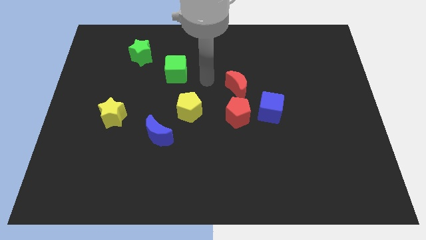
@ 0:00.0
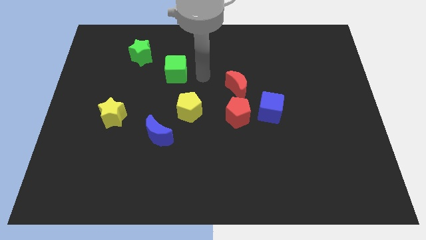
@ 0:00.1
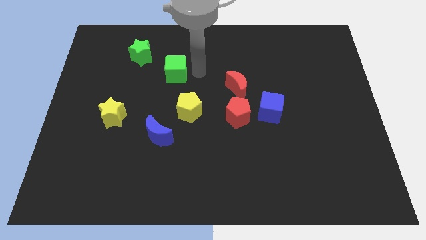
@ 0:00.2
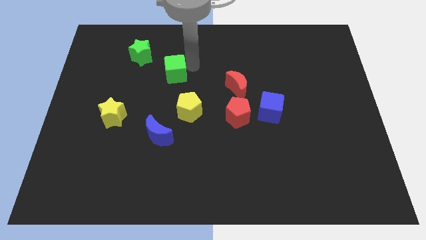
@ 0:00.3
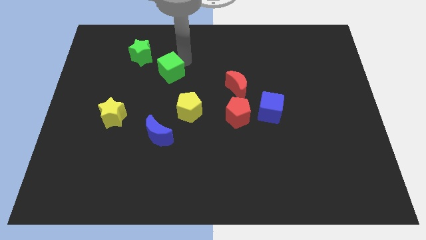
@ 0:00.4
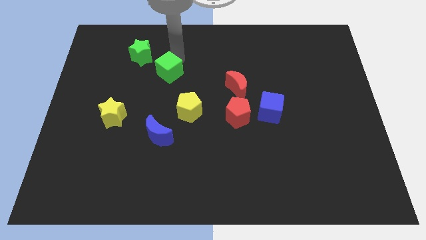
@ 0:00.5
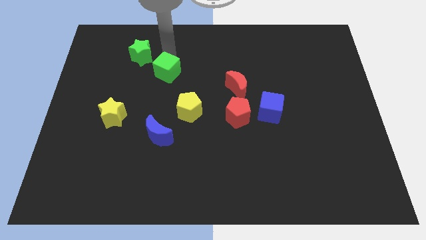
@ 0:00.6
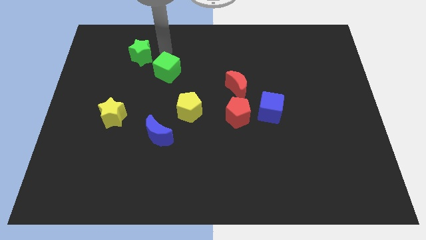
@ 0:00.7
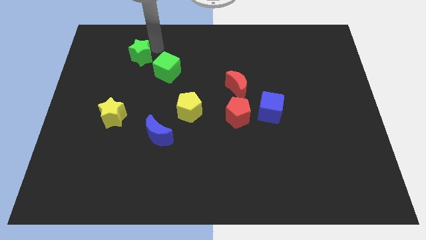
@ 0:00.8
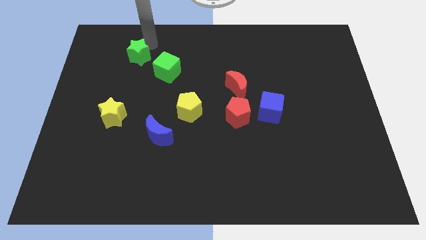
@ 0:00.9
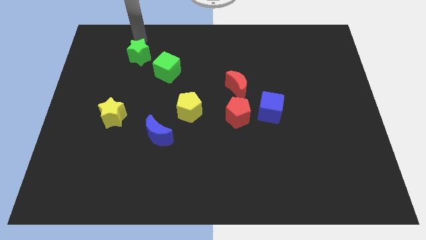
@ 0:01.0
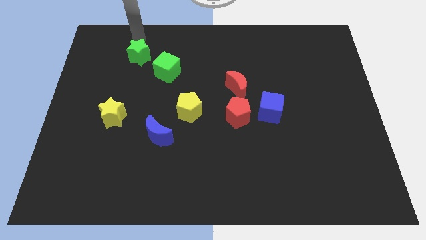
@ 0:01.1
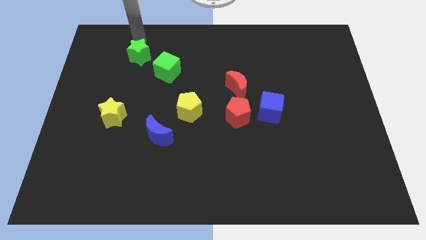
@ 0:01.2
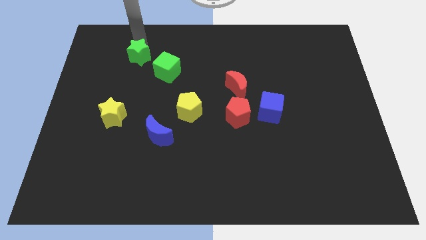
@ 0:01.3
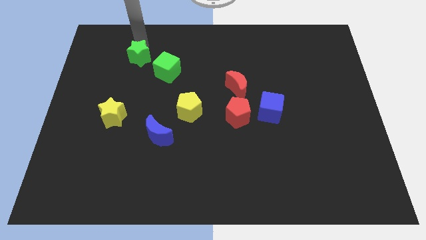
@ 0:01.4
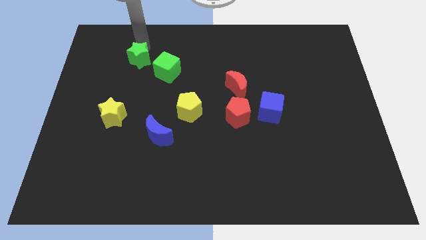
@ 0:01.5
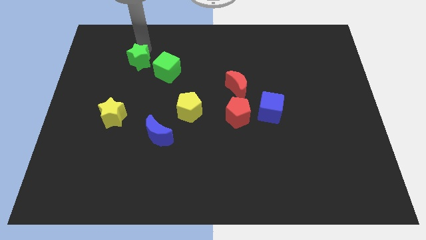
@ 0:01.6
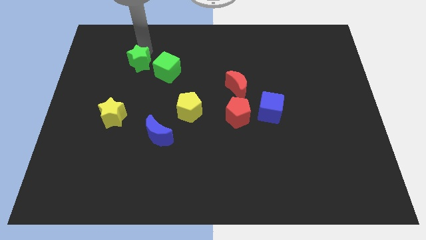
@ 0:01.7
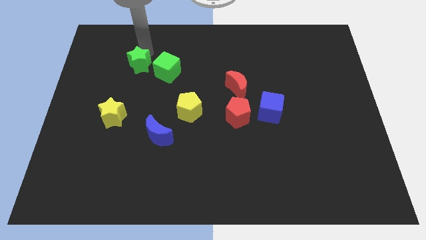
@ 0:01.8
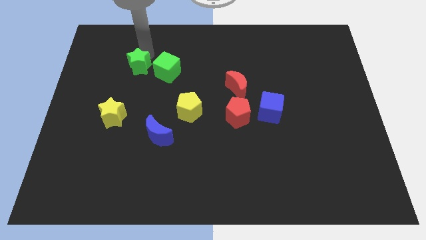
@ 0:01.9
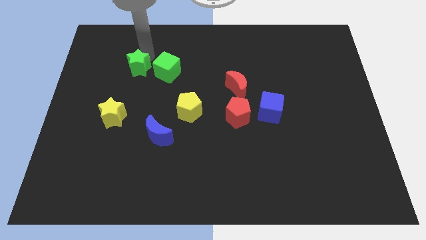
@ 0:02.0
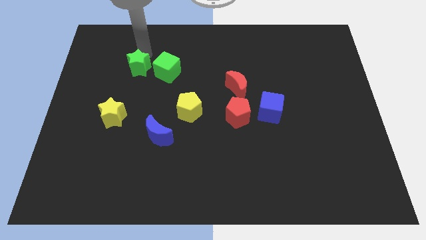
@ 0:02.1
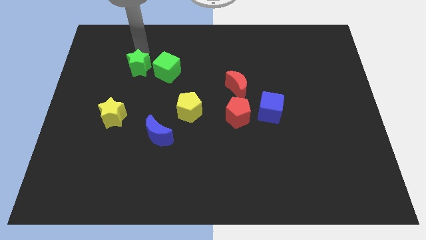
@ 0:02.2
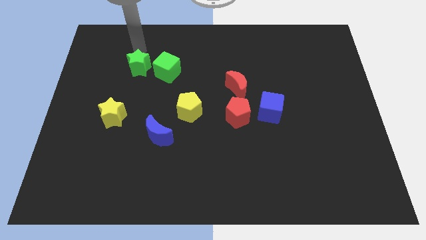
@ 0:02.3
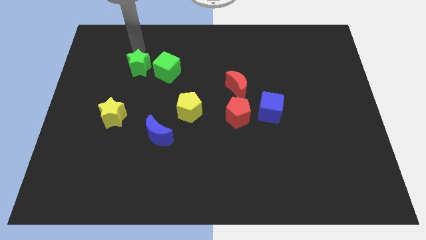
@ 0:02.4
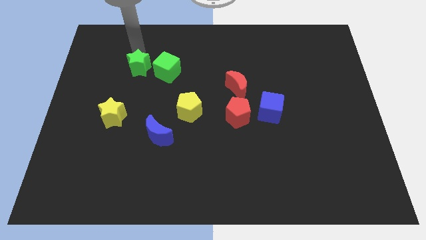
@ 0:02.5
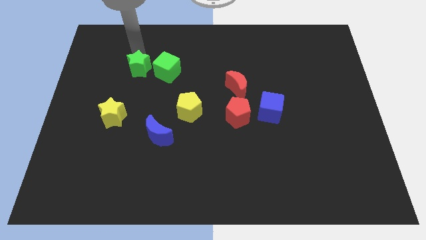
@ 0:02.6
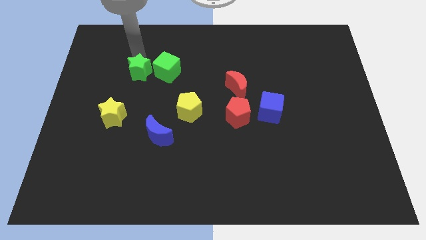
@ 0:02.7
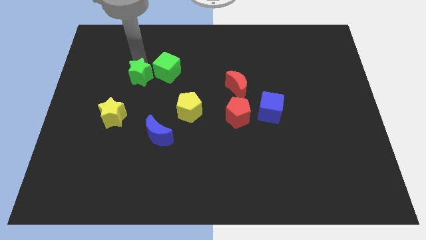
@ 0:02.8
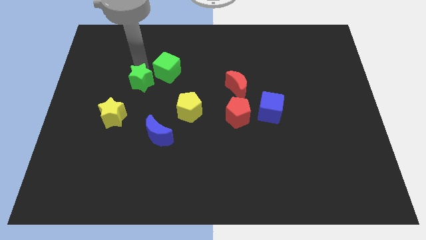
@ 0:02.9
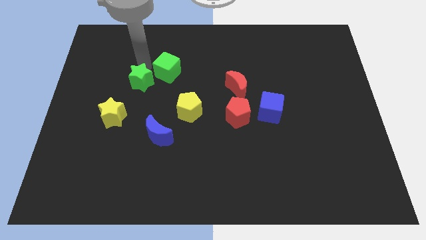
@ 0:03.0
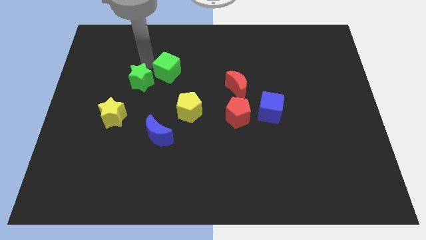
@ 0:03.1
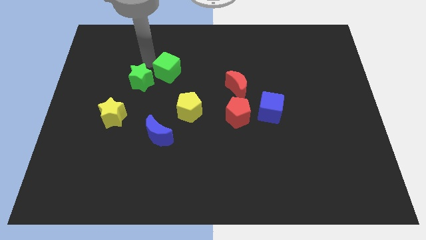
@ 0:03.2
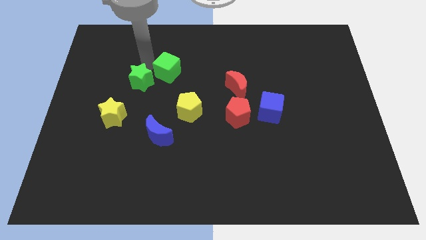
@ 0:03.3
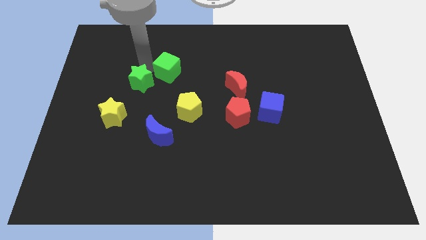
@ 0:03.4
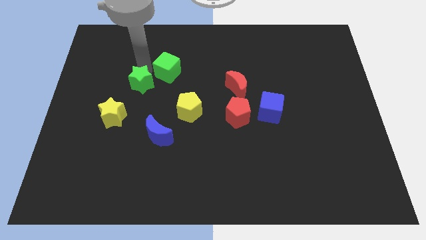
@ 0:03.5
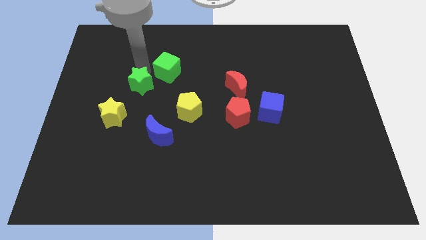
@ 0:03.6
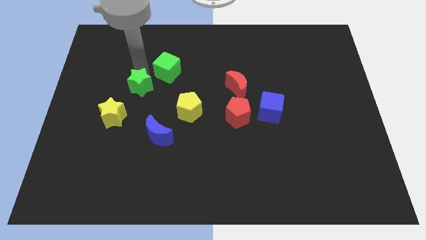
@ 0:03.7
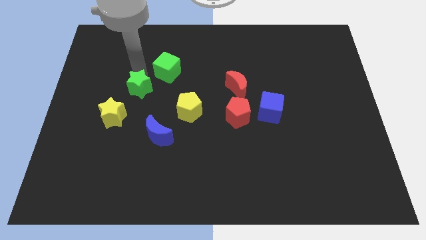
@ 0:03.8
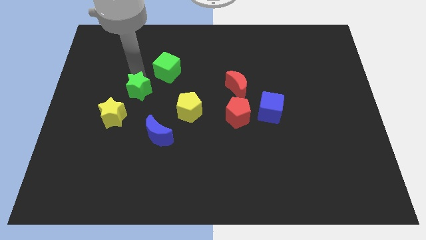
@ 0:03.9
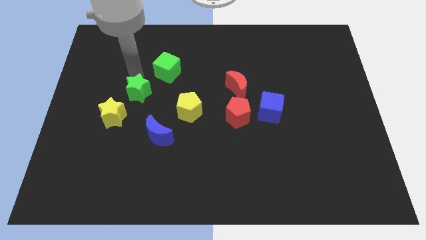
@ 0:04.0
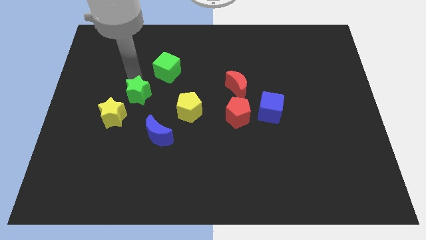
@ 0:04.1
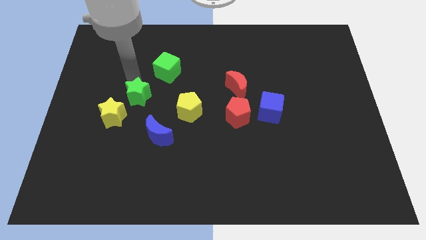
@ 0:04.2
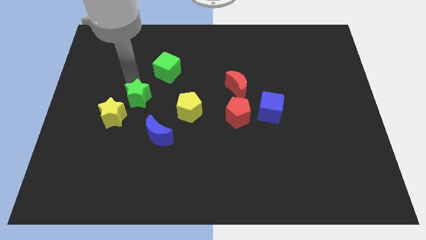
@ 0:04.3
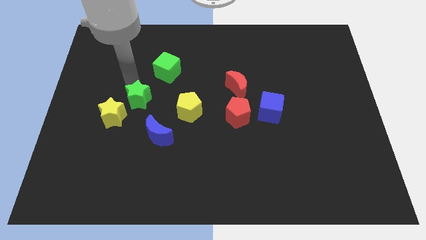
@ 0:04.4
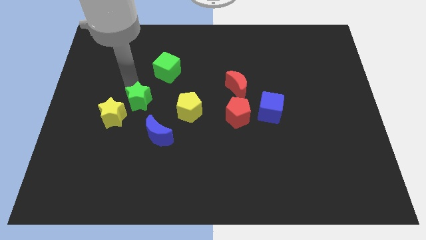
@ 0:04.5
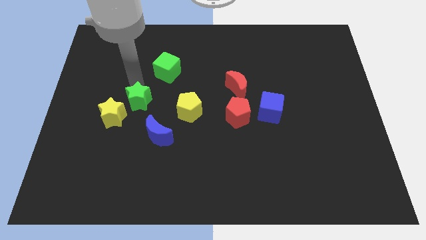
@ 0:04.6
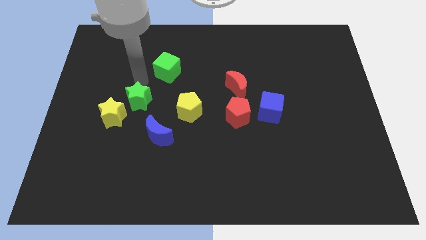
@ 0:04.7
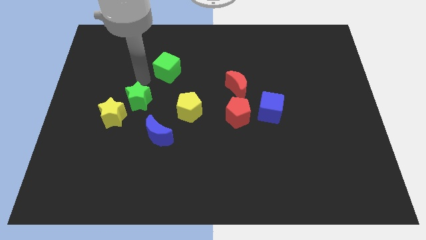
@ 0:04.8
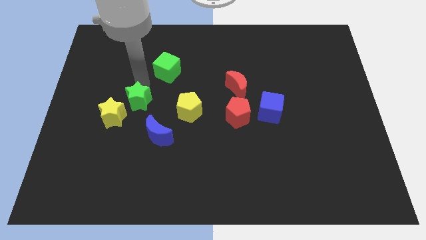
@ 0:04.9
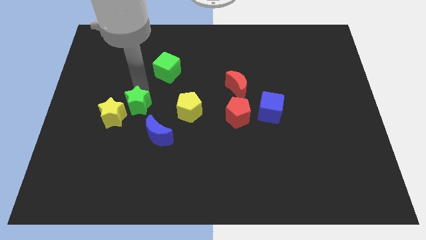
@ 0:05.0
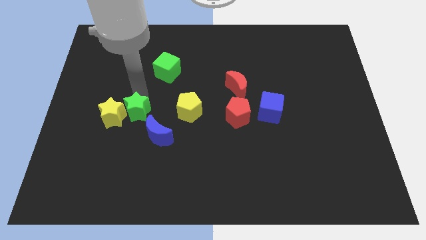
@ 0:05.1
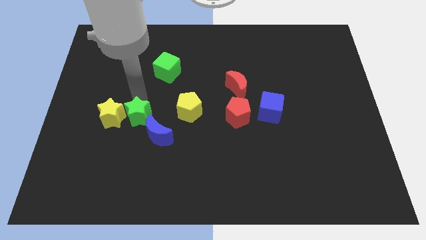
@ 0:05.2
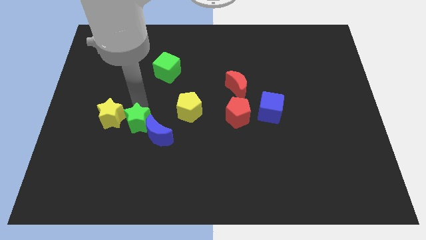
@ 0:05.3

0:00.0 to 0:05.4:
slide the green star down

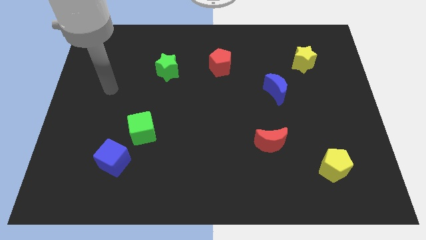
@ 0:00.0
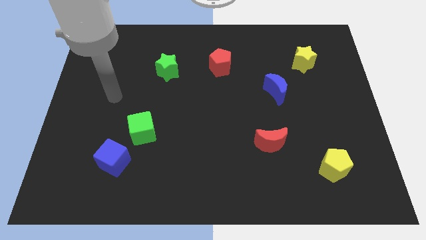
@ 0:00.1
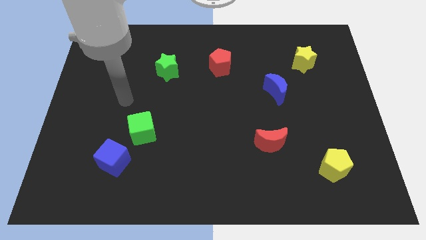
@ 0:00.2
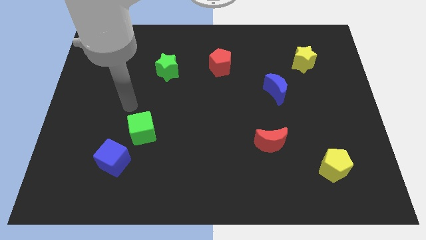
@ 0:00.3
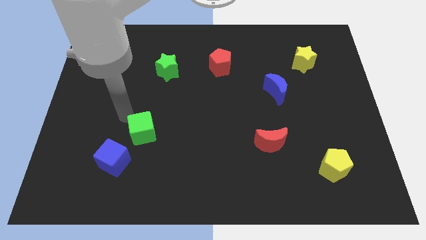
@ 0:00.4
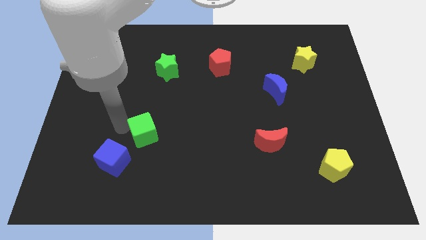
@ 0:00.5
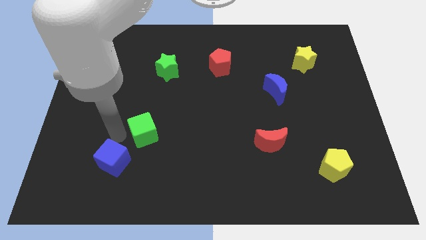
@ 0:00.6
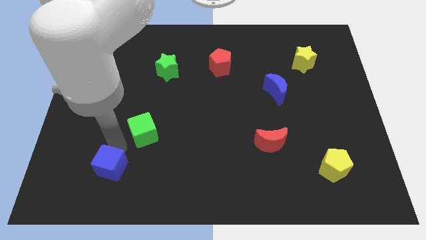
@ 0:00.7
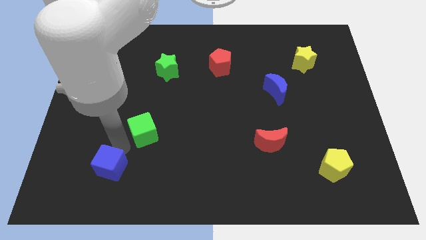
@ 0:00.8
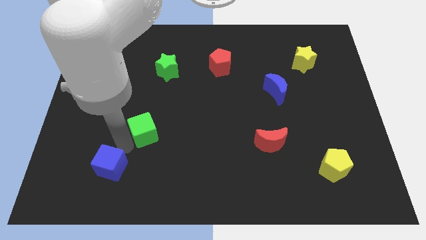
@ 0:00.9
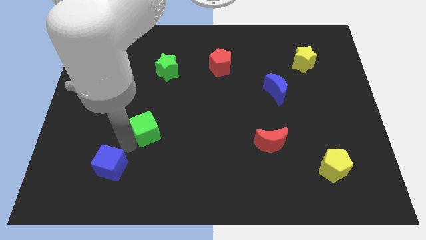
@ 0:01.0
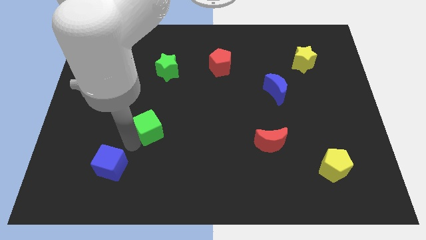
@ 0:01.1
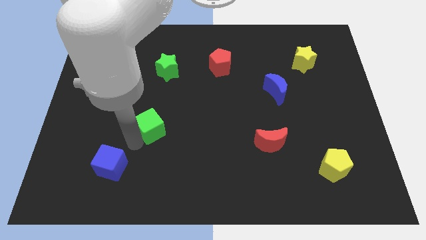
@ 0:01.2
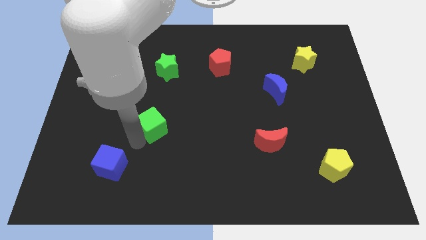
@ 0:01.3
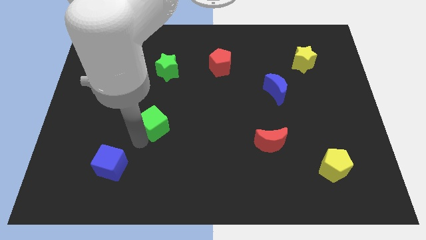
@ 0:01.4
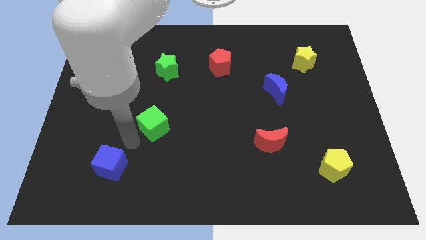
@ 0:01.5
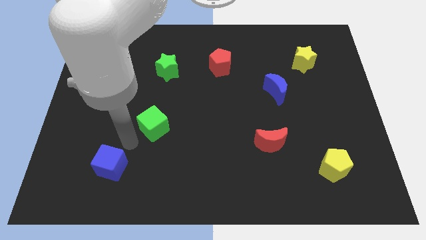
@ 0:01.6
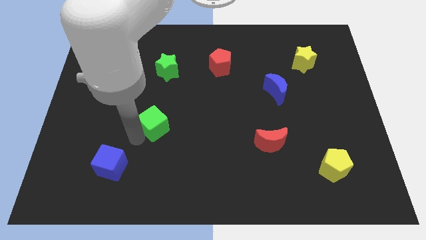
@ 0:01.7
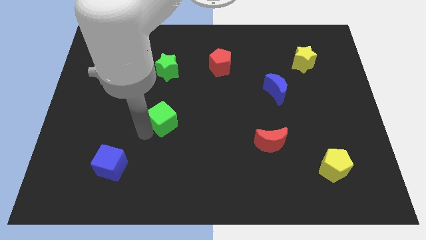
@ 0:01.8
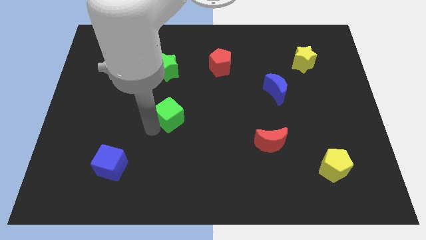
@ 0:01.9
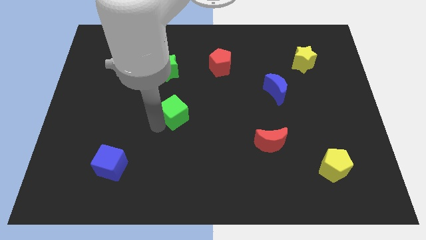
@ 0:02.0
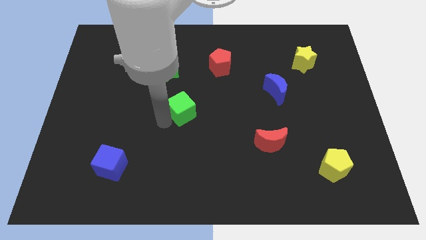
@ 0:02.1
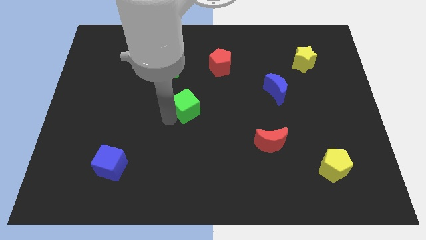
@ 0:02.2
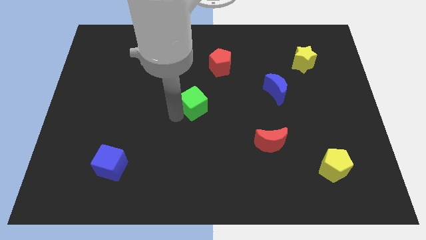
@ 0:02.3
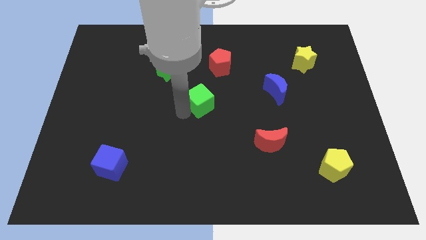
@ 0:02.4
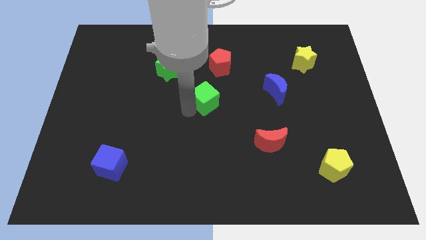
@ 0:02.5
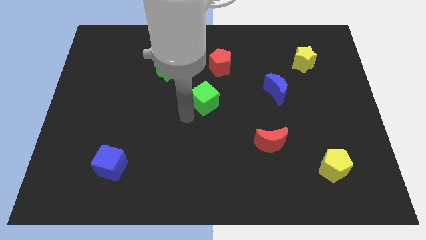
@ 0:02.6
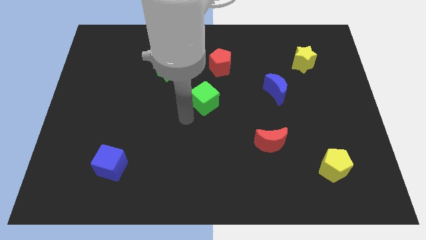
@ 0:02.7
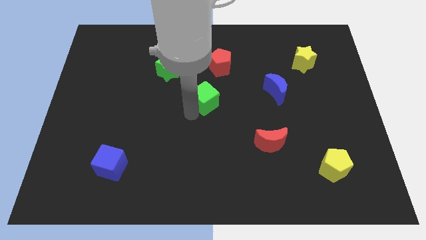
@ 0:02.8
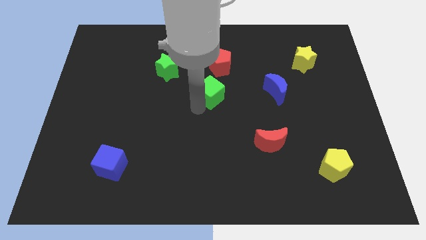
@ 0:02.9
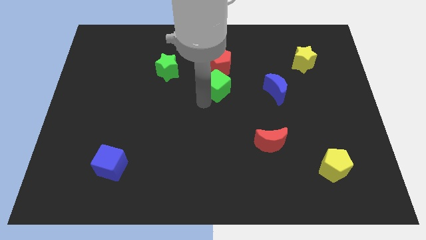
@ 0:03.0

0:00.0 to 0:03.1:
move the green cube diagonally up and to the right
